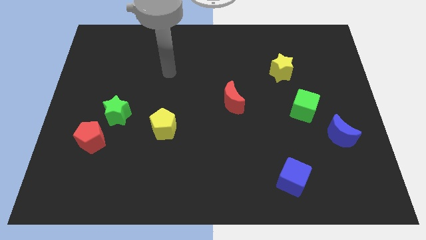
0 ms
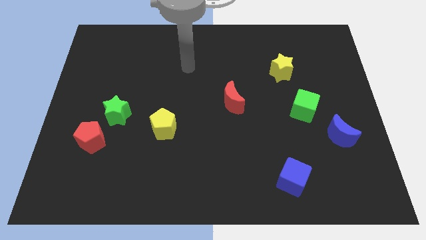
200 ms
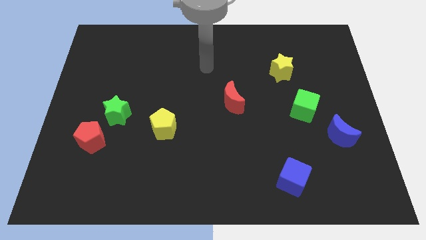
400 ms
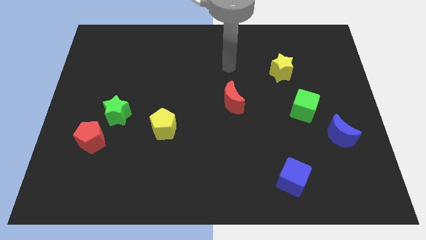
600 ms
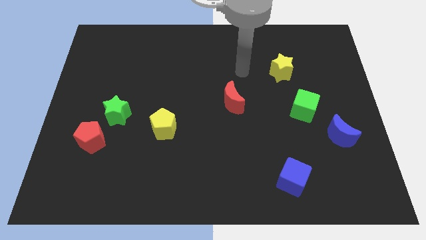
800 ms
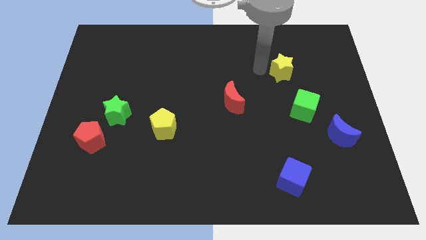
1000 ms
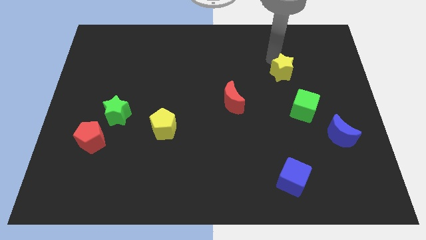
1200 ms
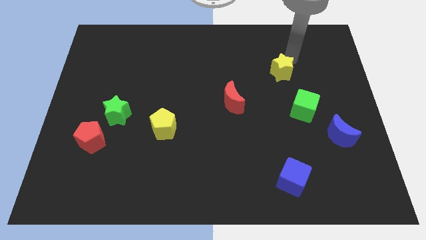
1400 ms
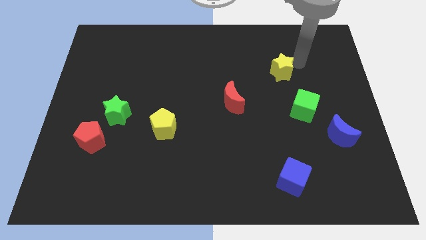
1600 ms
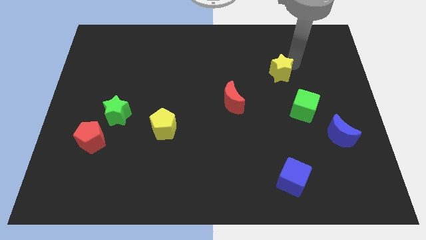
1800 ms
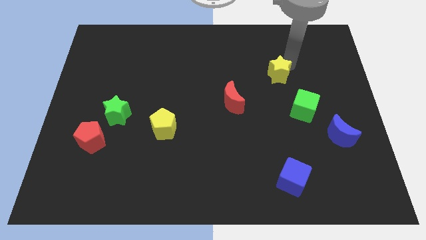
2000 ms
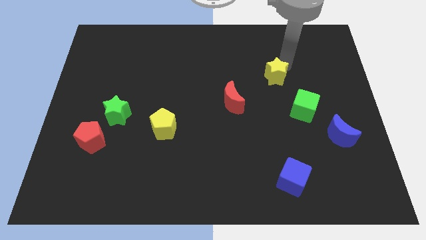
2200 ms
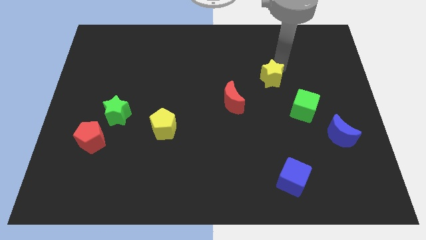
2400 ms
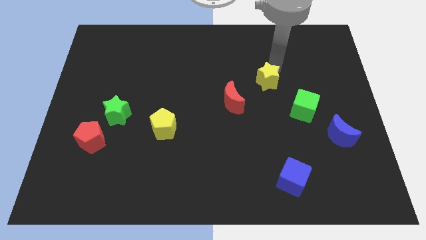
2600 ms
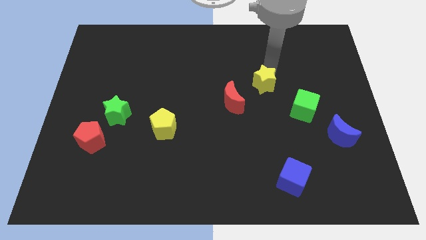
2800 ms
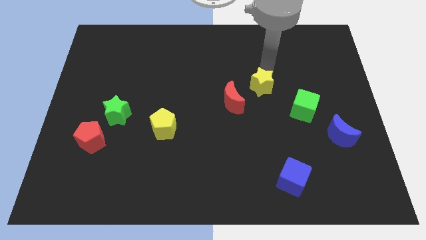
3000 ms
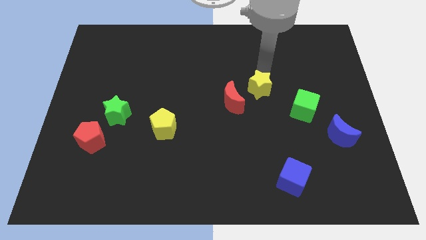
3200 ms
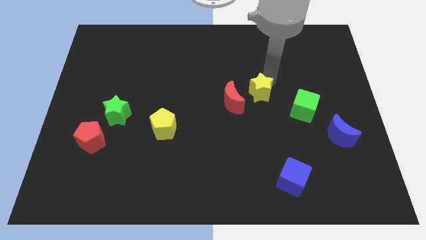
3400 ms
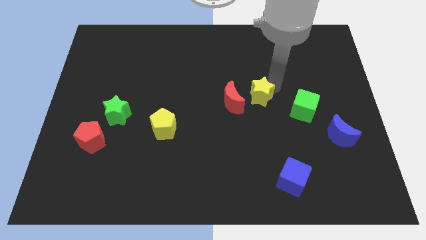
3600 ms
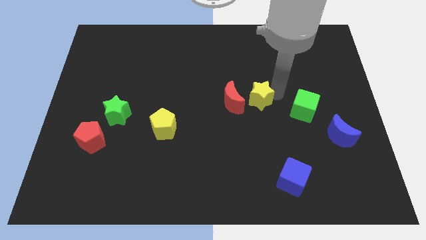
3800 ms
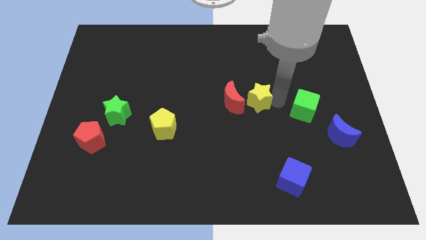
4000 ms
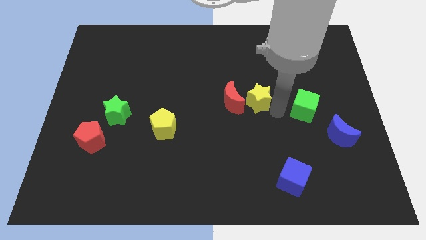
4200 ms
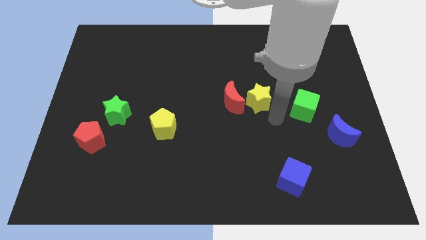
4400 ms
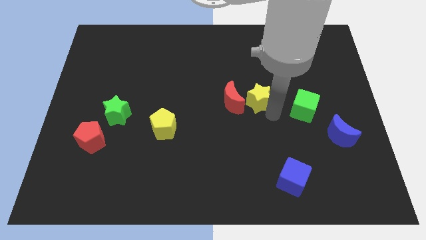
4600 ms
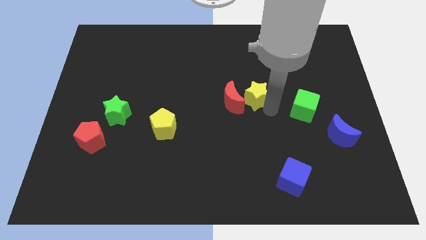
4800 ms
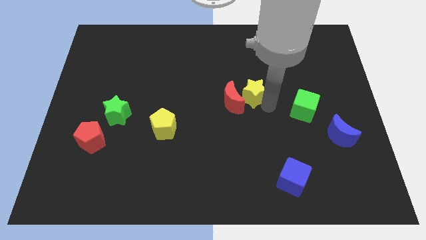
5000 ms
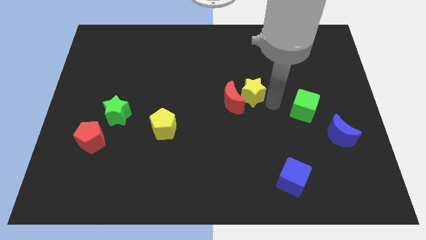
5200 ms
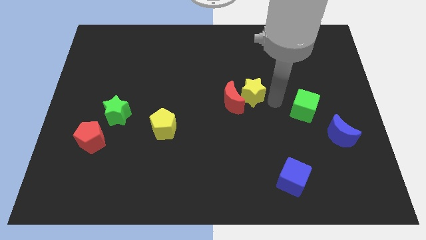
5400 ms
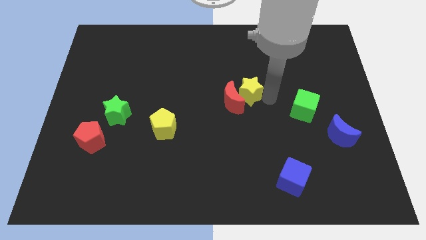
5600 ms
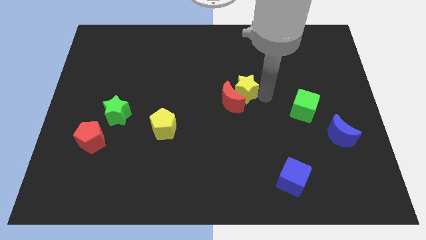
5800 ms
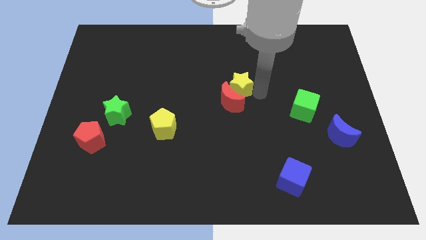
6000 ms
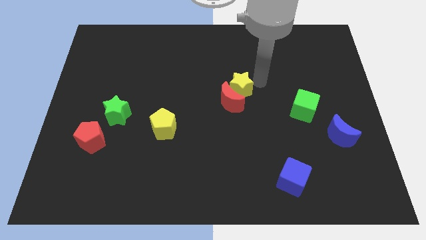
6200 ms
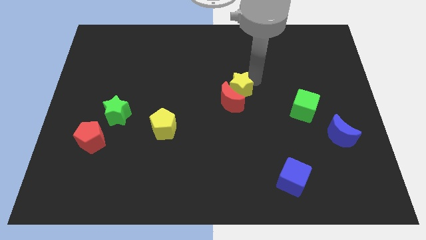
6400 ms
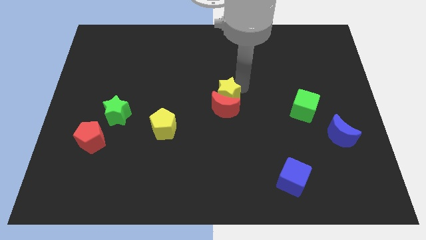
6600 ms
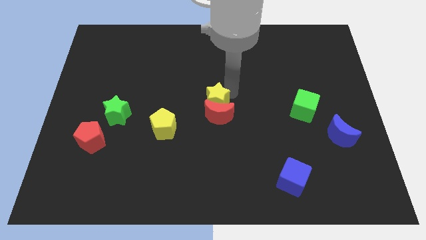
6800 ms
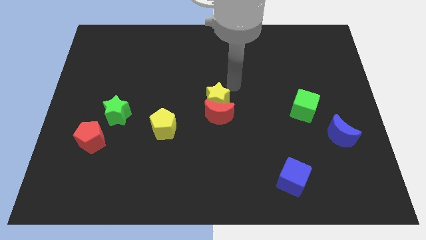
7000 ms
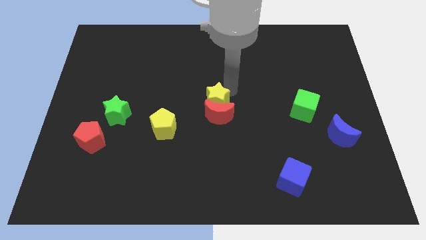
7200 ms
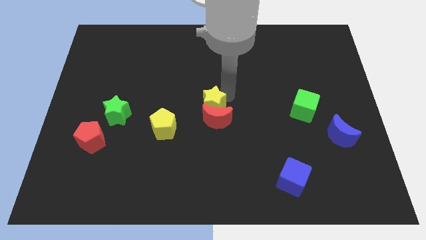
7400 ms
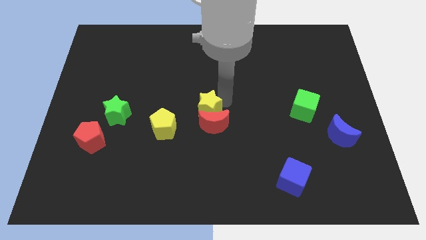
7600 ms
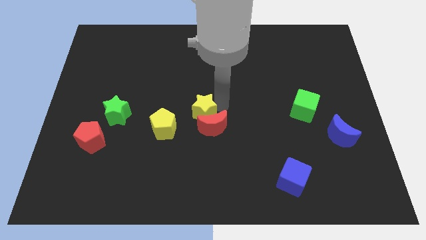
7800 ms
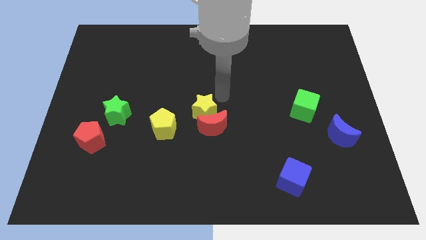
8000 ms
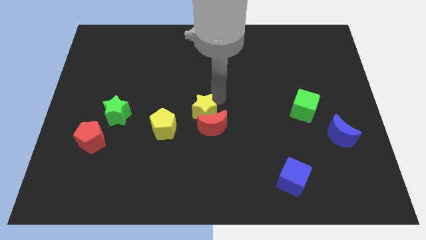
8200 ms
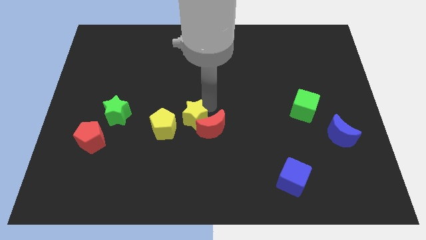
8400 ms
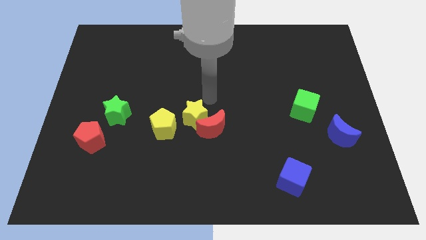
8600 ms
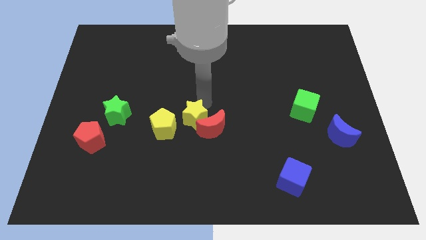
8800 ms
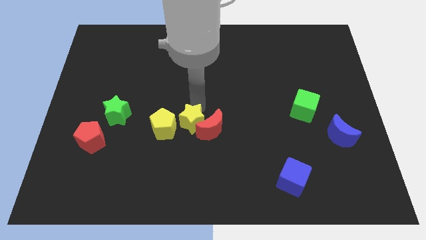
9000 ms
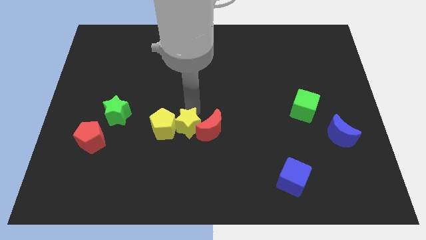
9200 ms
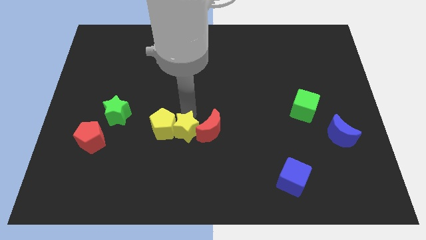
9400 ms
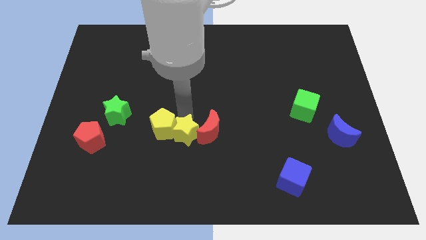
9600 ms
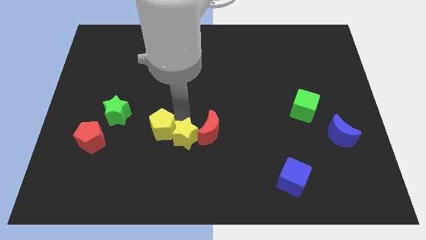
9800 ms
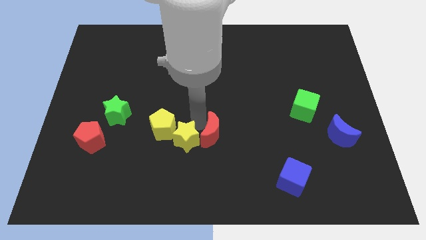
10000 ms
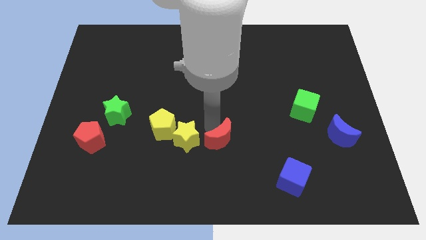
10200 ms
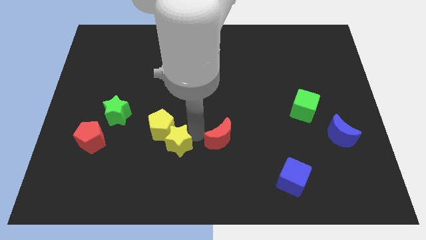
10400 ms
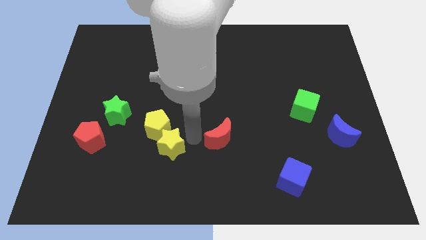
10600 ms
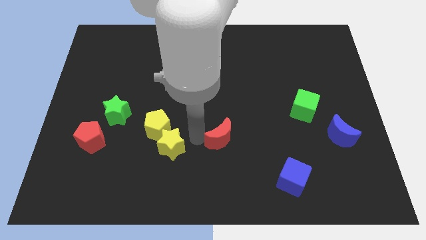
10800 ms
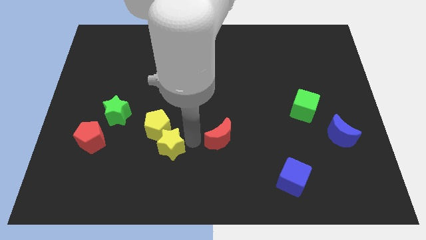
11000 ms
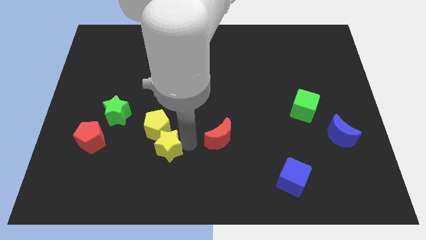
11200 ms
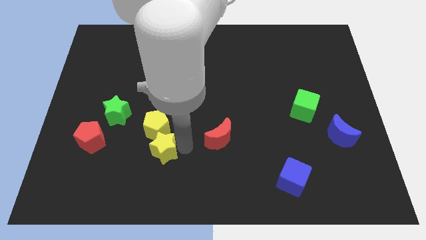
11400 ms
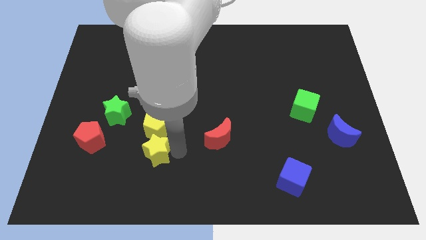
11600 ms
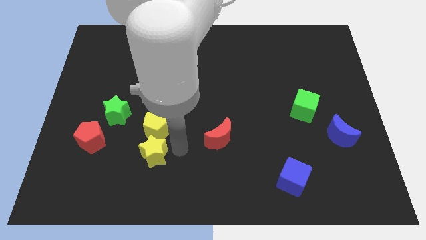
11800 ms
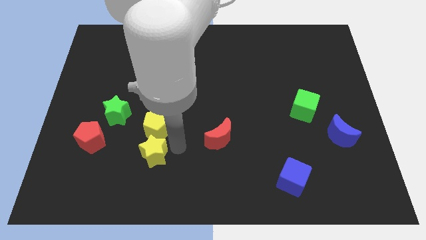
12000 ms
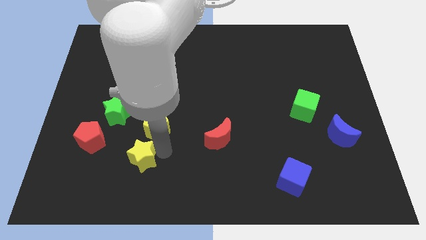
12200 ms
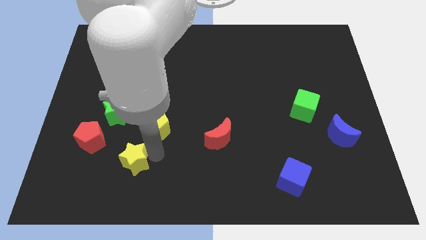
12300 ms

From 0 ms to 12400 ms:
move the yellow star diagonally down and to the right of the red pentagon

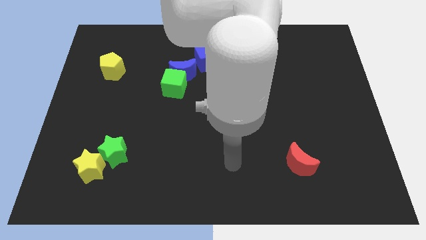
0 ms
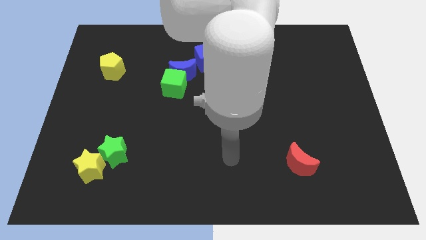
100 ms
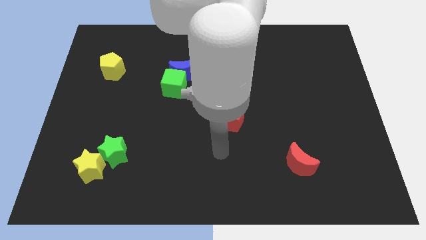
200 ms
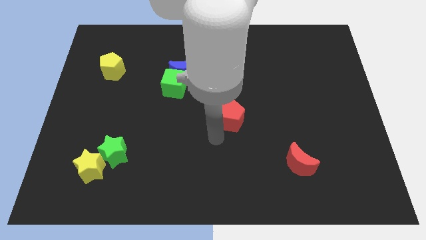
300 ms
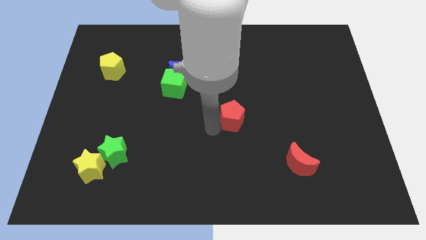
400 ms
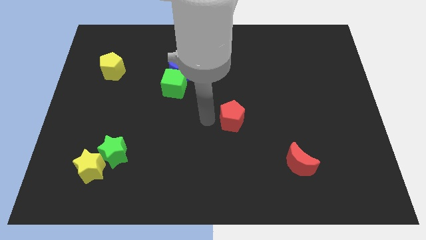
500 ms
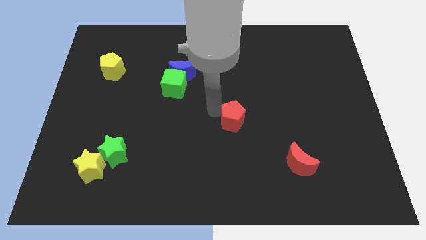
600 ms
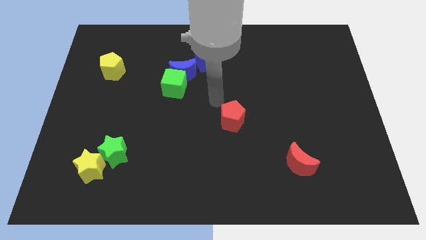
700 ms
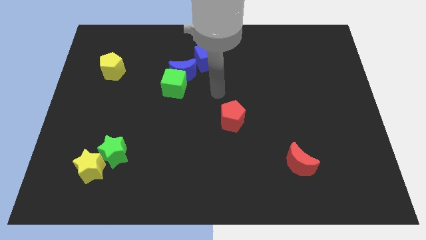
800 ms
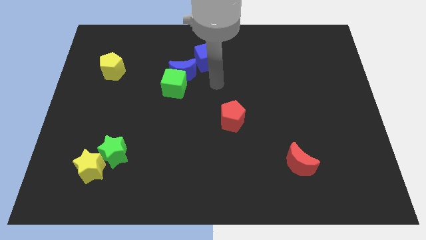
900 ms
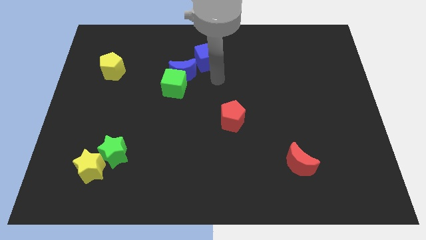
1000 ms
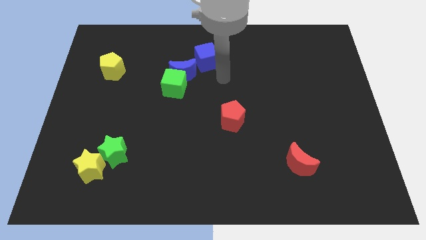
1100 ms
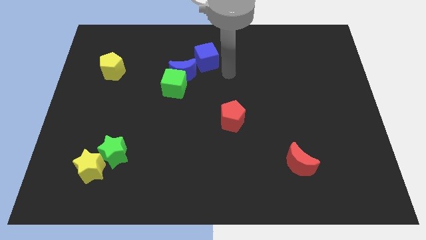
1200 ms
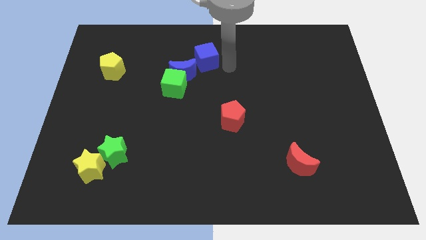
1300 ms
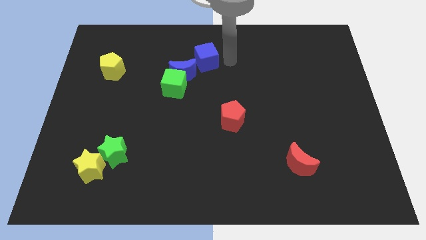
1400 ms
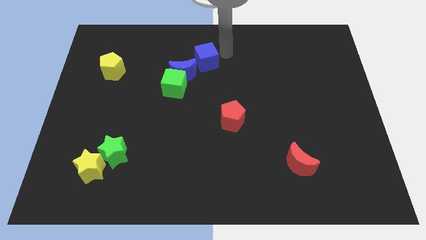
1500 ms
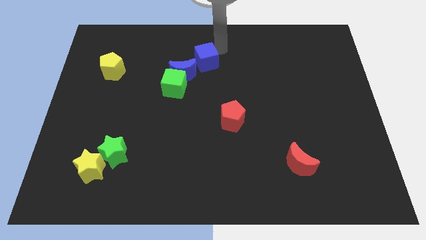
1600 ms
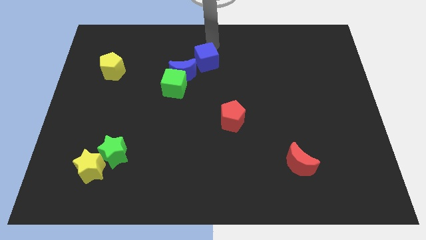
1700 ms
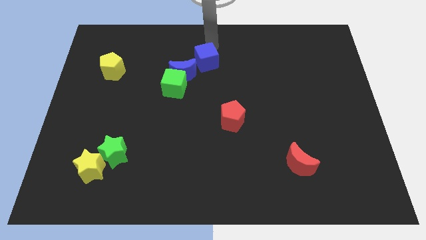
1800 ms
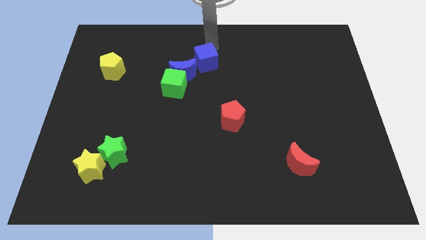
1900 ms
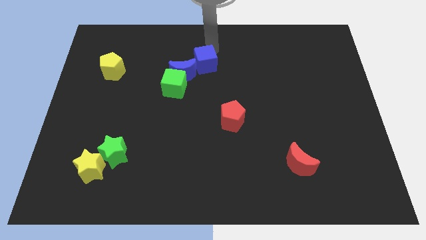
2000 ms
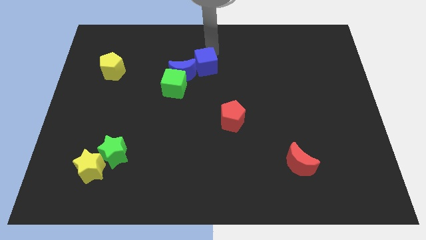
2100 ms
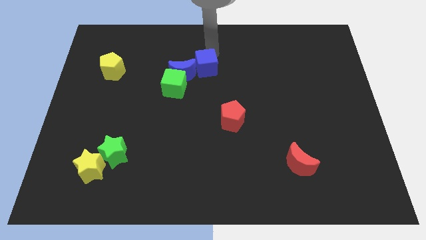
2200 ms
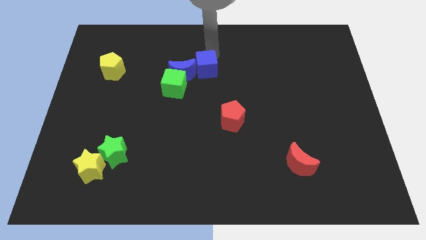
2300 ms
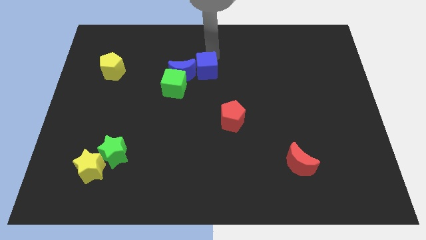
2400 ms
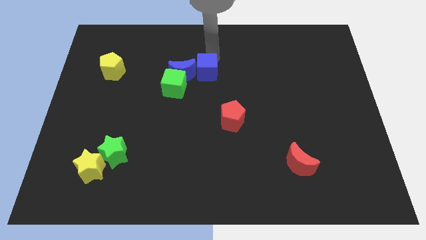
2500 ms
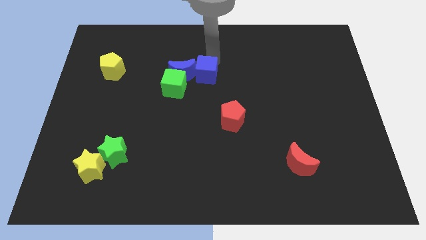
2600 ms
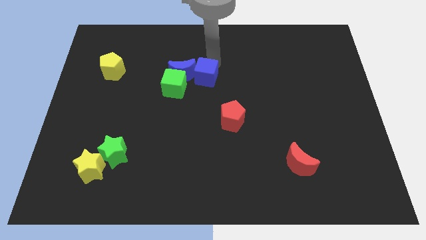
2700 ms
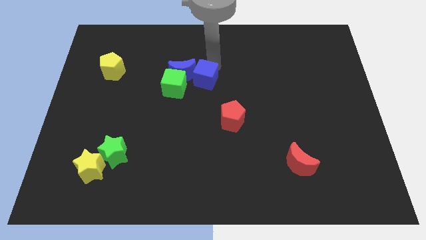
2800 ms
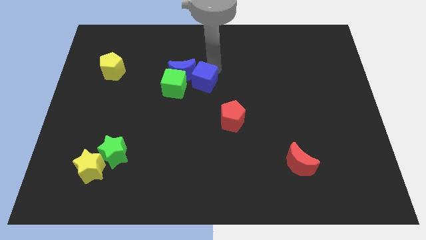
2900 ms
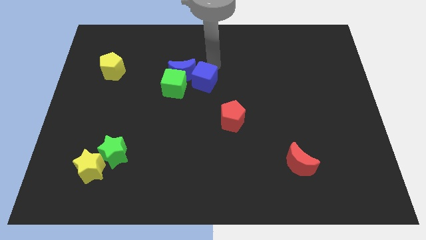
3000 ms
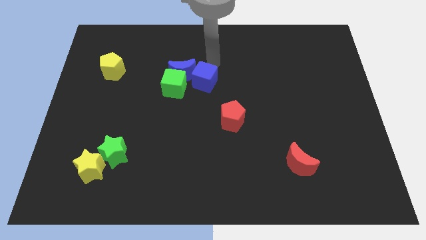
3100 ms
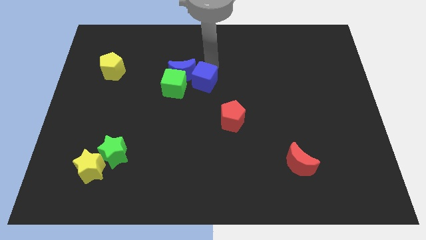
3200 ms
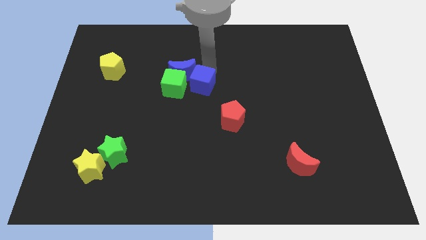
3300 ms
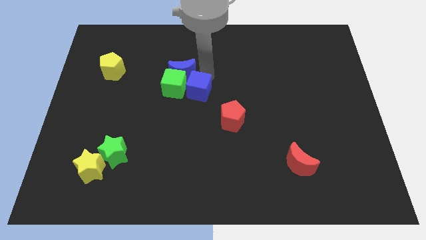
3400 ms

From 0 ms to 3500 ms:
move the blue cube to the bottom right side of the green cube
